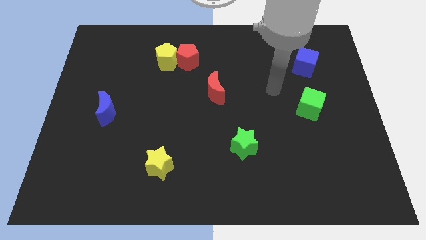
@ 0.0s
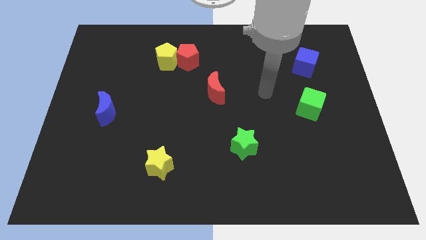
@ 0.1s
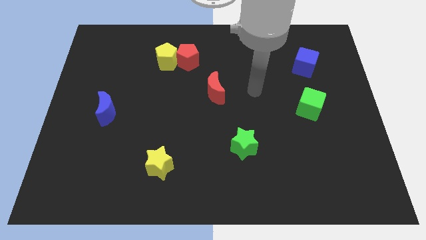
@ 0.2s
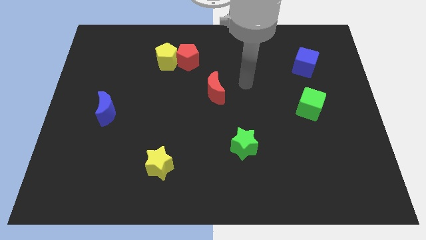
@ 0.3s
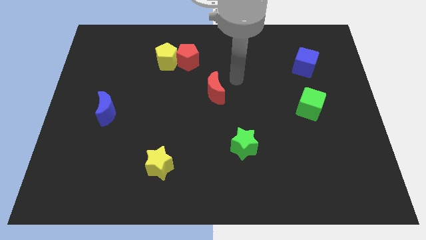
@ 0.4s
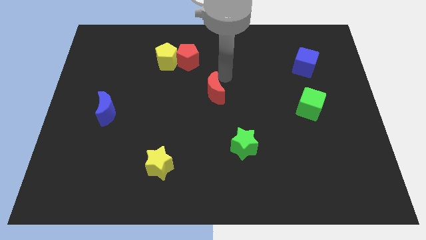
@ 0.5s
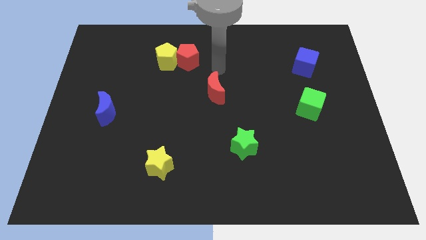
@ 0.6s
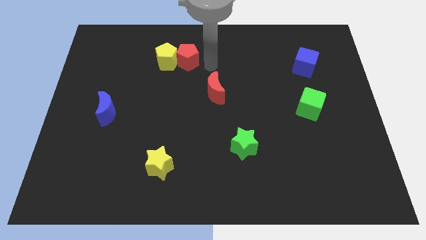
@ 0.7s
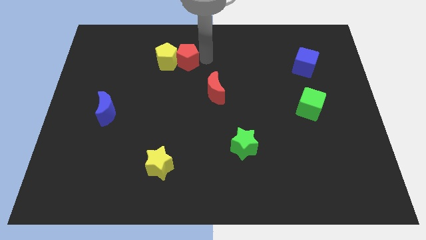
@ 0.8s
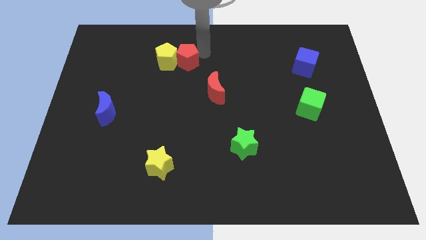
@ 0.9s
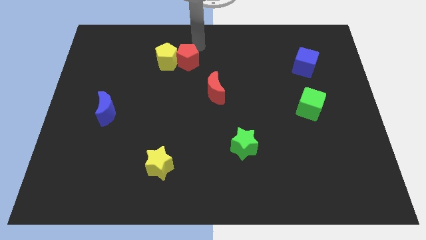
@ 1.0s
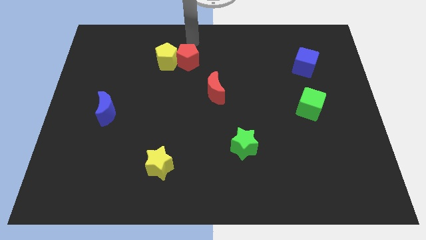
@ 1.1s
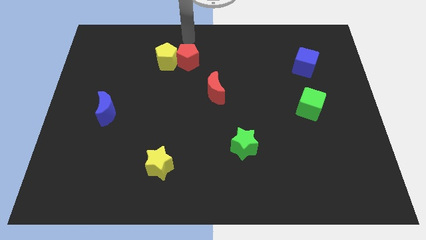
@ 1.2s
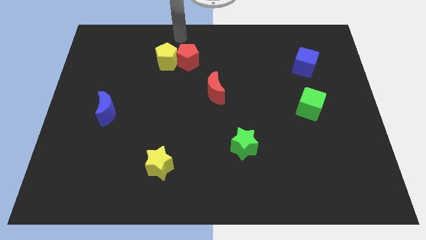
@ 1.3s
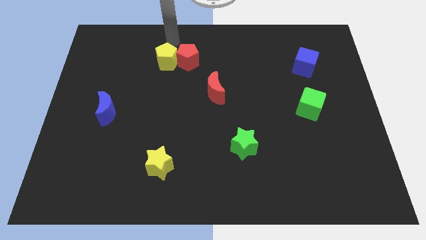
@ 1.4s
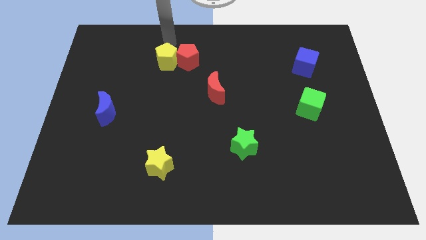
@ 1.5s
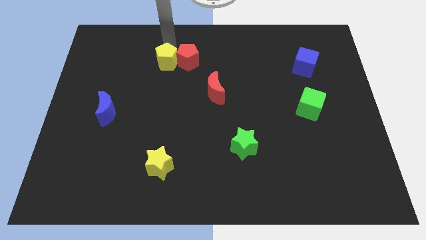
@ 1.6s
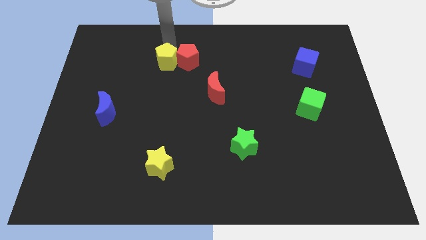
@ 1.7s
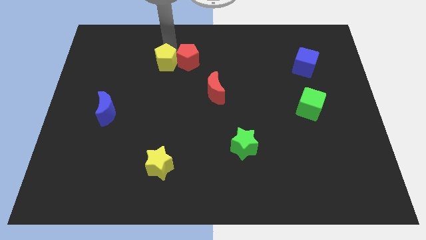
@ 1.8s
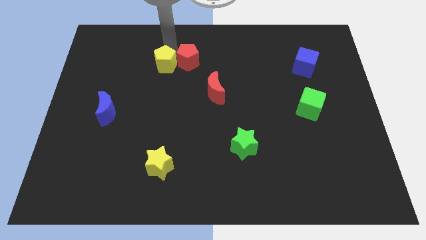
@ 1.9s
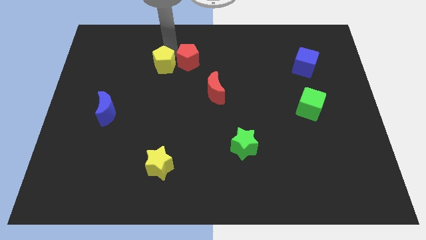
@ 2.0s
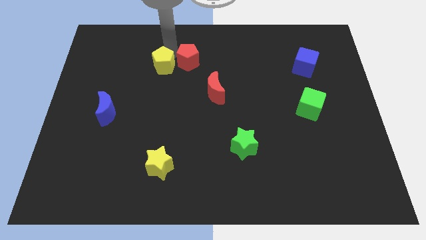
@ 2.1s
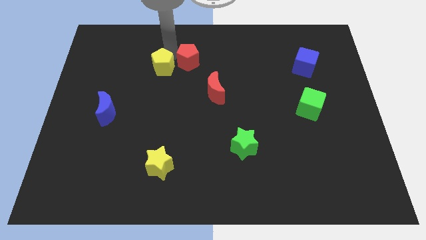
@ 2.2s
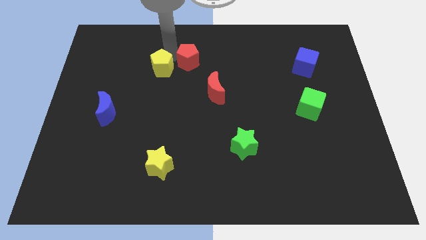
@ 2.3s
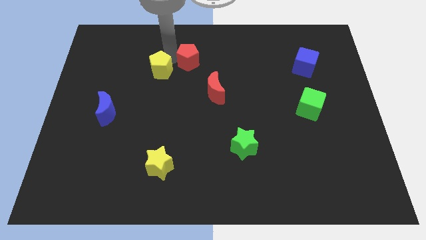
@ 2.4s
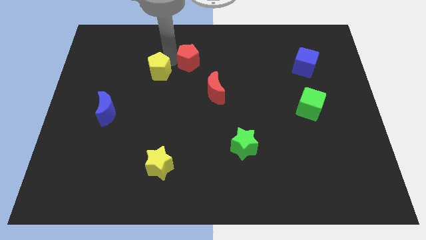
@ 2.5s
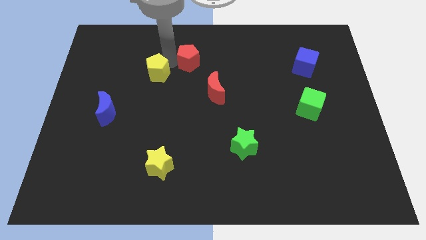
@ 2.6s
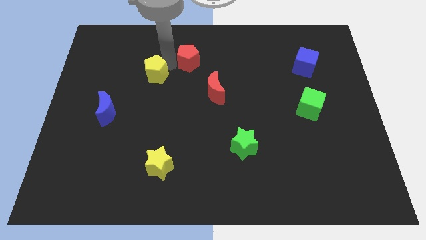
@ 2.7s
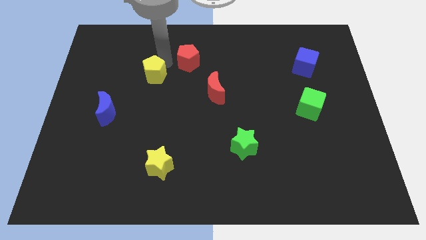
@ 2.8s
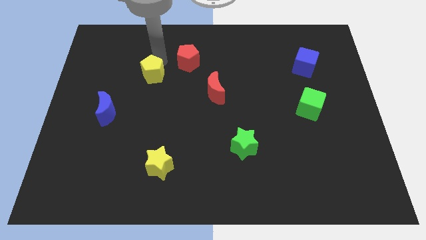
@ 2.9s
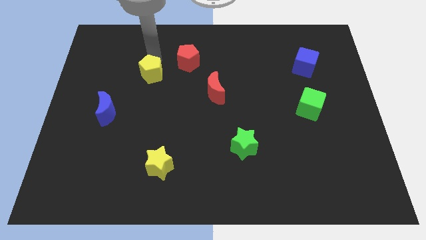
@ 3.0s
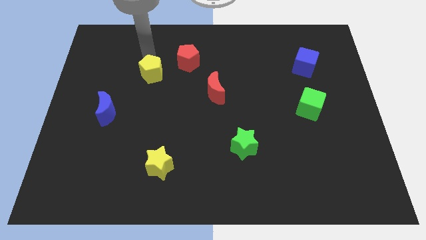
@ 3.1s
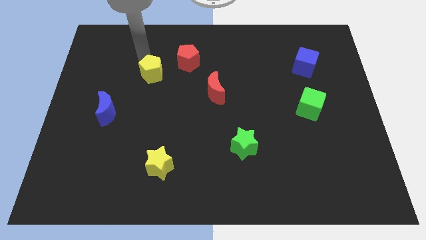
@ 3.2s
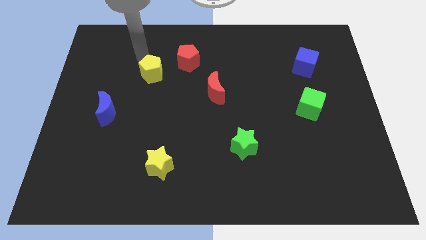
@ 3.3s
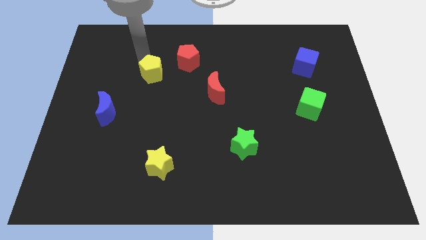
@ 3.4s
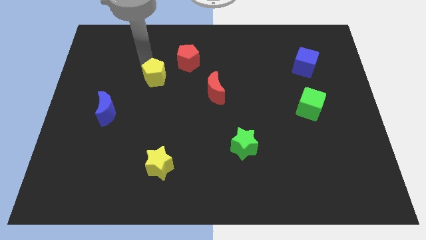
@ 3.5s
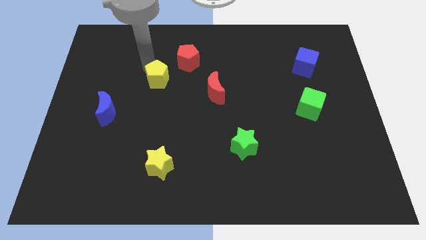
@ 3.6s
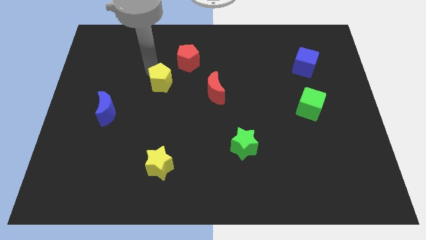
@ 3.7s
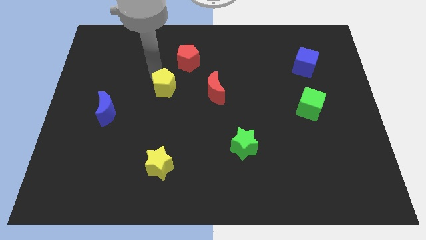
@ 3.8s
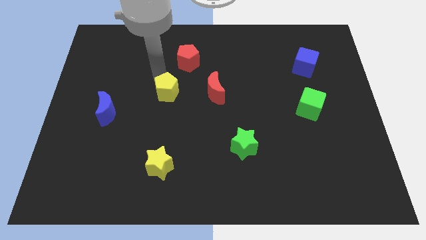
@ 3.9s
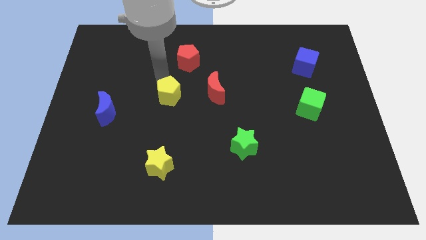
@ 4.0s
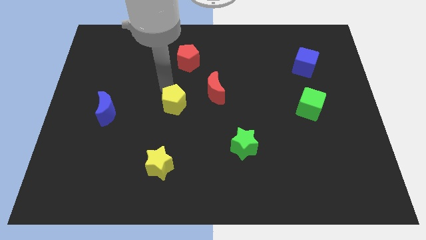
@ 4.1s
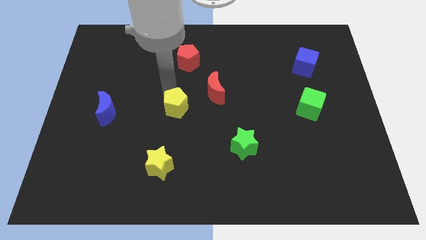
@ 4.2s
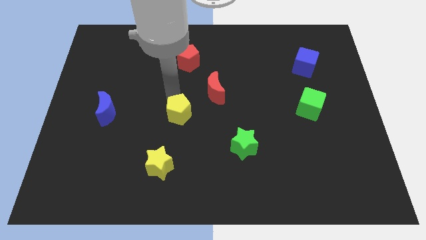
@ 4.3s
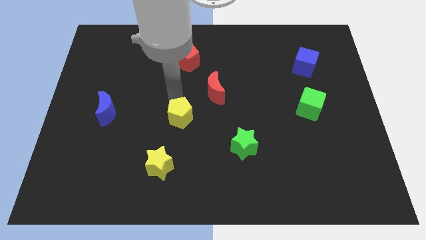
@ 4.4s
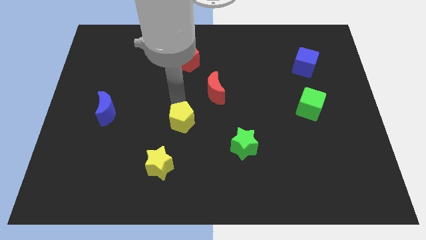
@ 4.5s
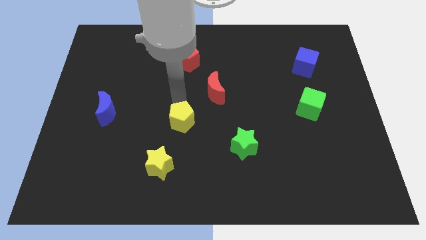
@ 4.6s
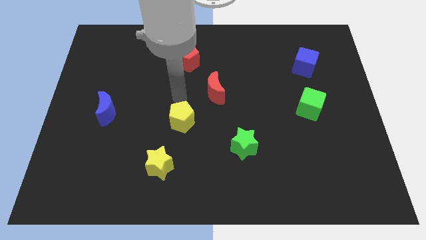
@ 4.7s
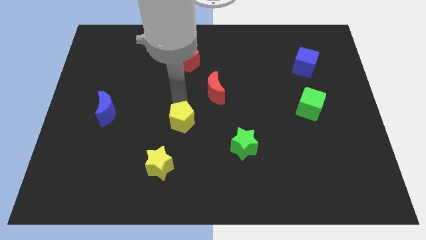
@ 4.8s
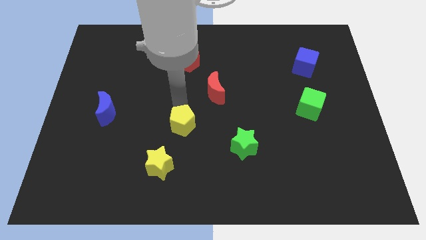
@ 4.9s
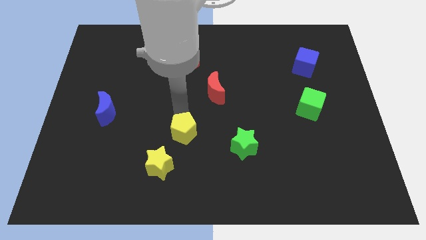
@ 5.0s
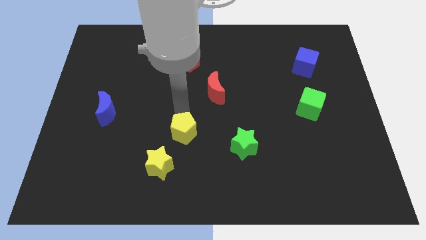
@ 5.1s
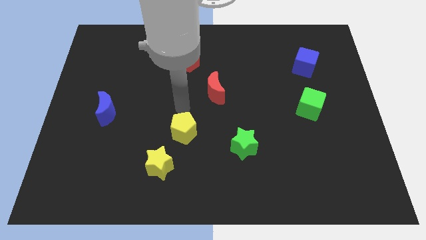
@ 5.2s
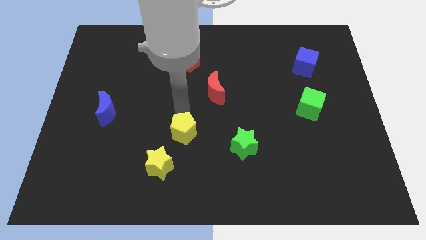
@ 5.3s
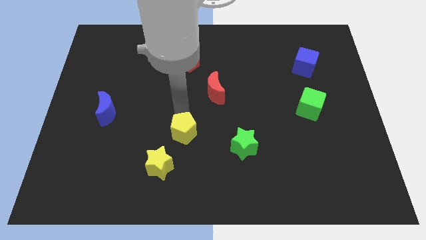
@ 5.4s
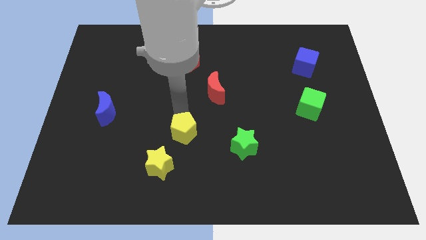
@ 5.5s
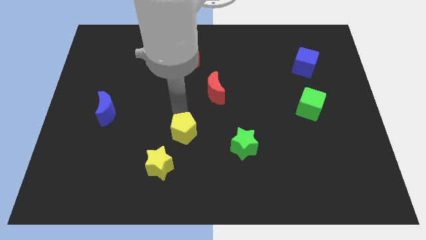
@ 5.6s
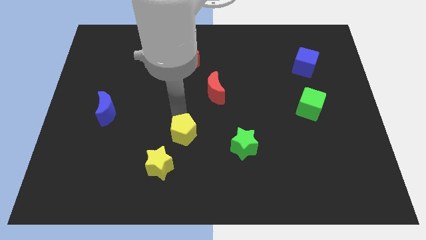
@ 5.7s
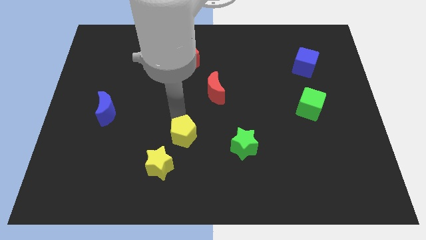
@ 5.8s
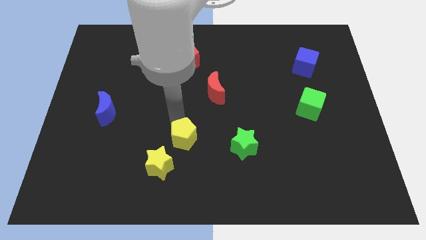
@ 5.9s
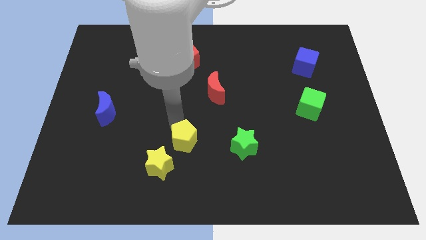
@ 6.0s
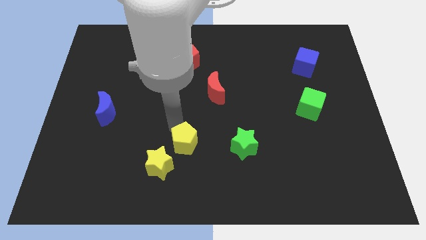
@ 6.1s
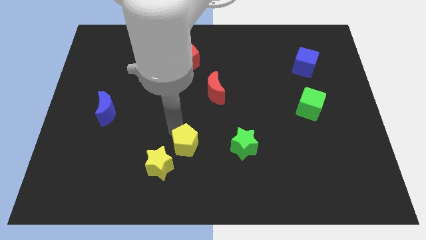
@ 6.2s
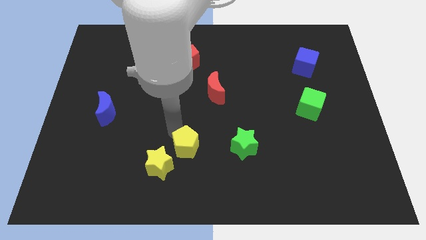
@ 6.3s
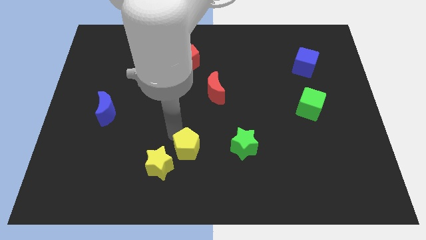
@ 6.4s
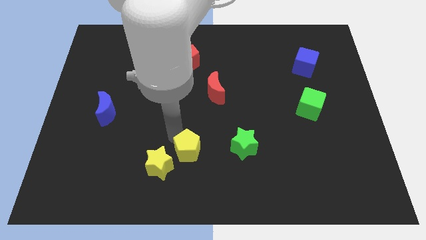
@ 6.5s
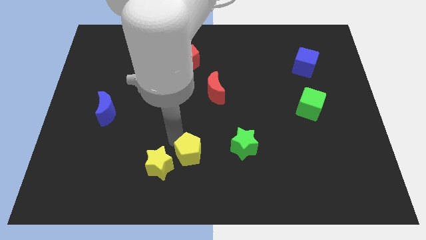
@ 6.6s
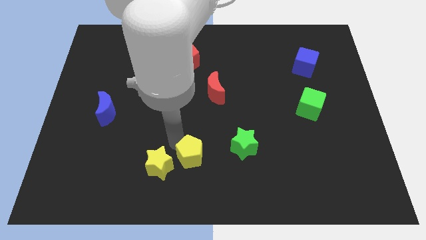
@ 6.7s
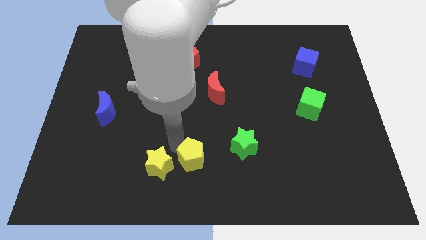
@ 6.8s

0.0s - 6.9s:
slide the yellow pentagon to the bottom

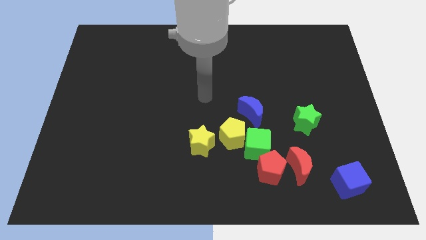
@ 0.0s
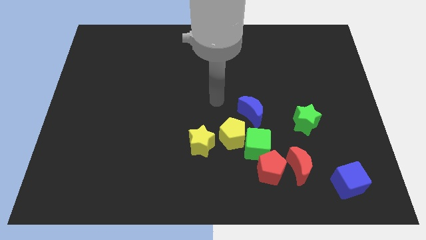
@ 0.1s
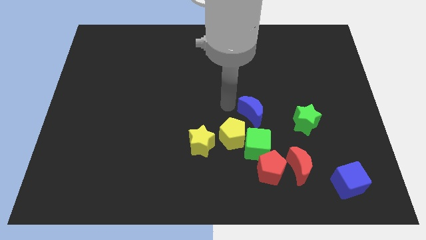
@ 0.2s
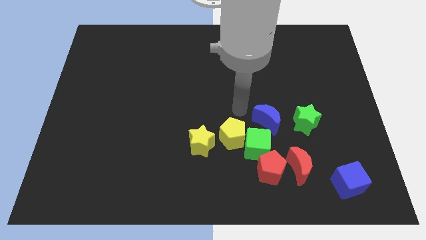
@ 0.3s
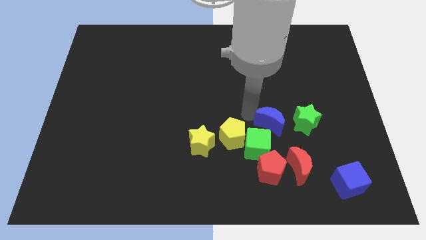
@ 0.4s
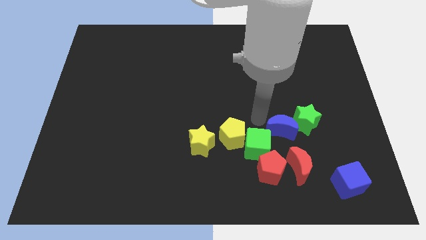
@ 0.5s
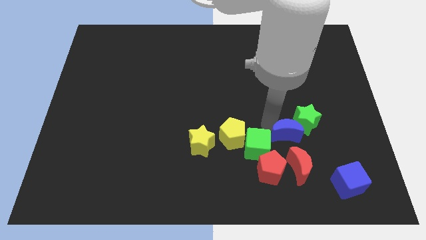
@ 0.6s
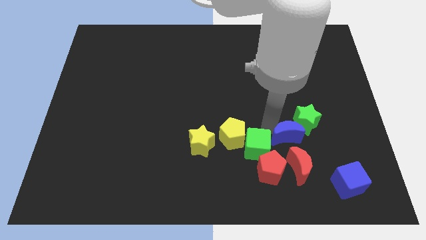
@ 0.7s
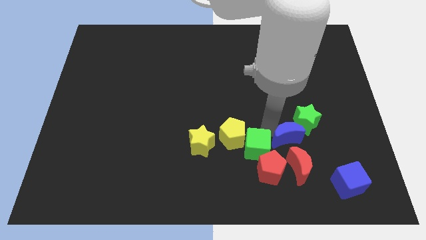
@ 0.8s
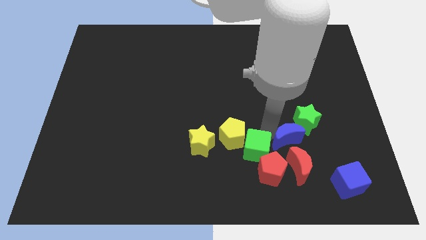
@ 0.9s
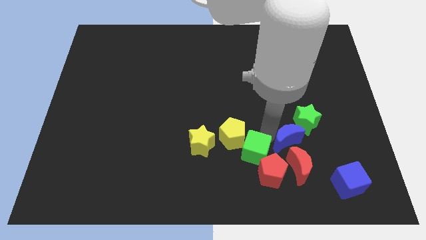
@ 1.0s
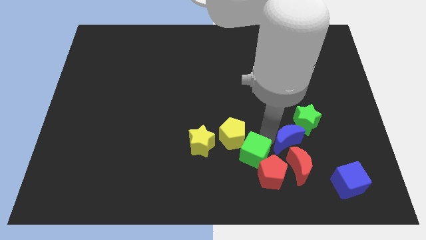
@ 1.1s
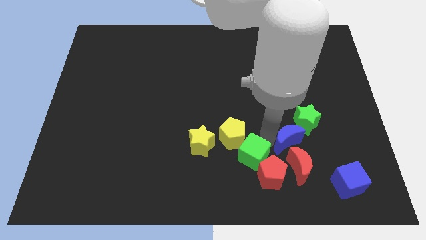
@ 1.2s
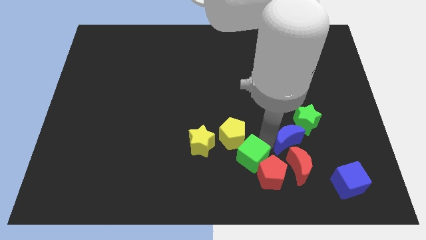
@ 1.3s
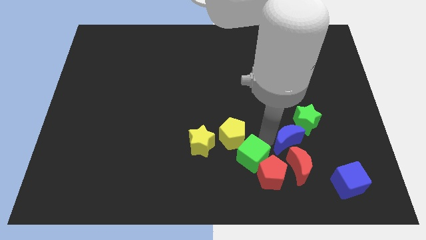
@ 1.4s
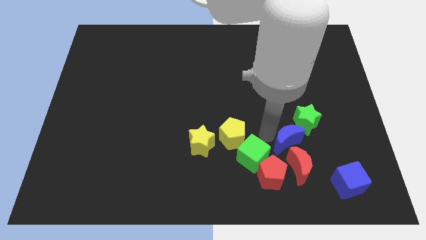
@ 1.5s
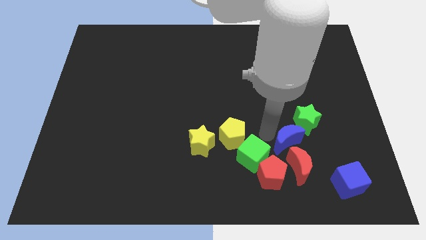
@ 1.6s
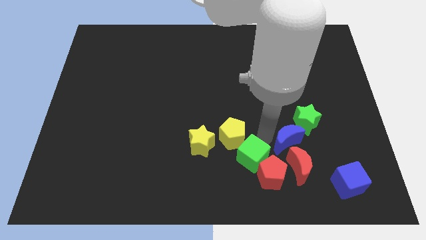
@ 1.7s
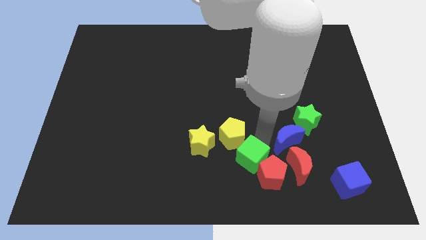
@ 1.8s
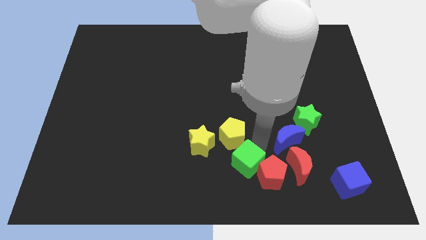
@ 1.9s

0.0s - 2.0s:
put the green cube to the bottom
